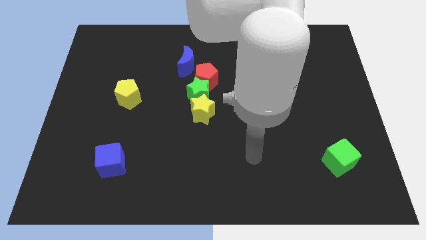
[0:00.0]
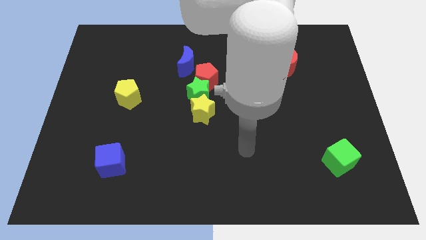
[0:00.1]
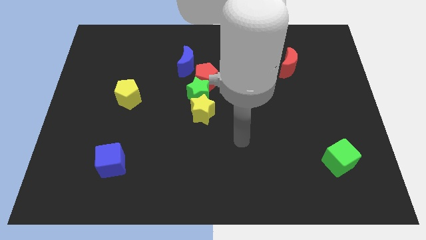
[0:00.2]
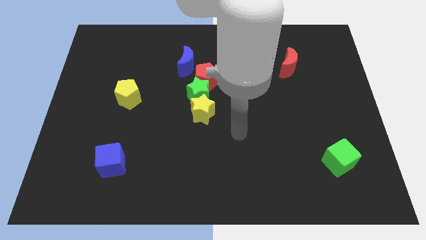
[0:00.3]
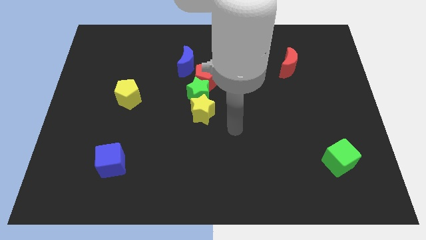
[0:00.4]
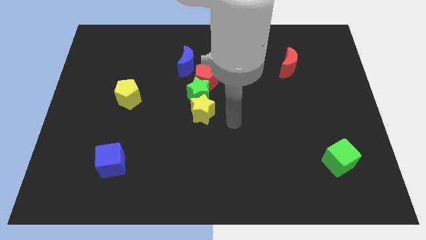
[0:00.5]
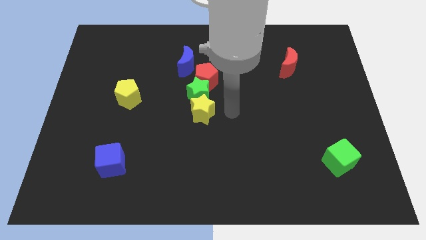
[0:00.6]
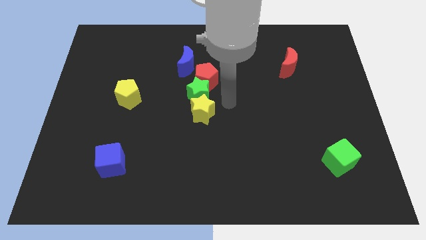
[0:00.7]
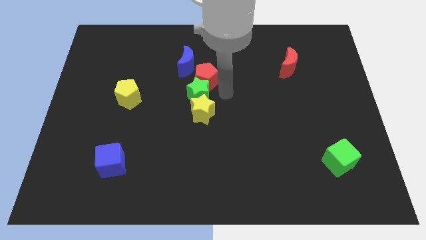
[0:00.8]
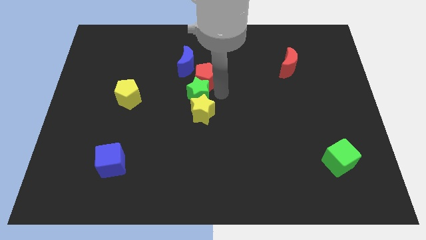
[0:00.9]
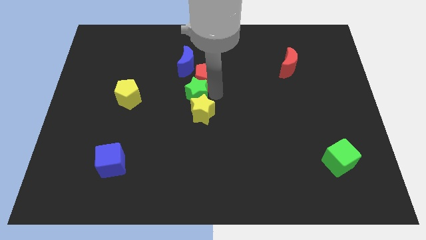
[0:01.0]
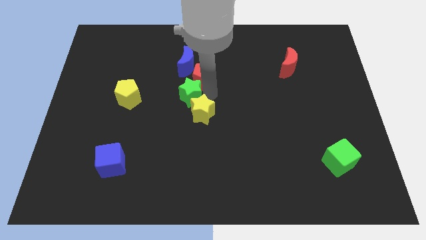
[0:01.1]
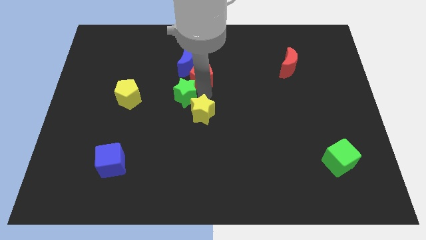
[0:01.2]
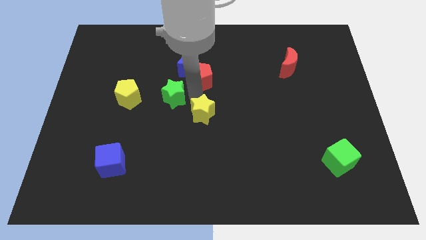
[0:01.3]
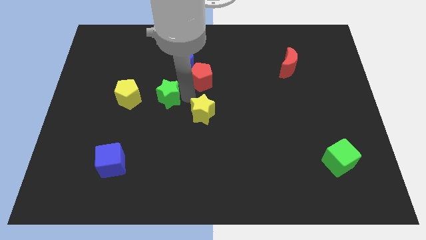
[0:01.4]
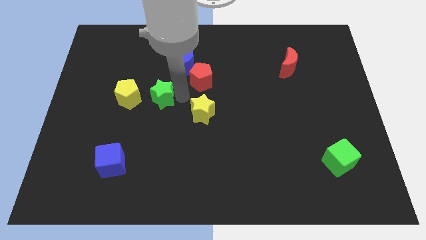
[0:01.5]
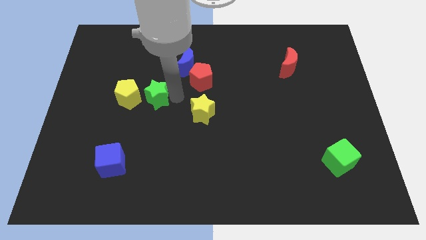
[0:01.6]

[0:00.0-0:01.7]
separate the green star from the red pentagon and yellow star

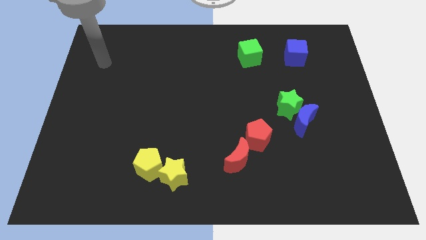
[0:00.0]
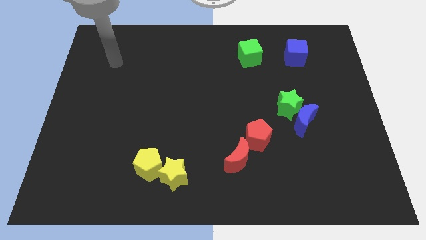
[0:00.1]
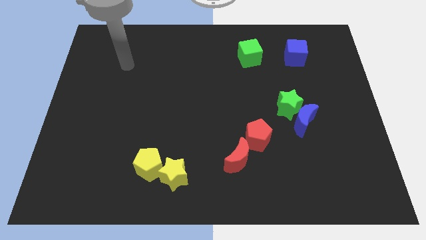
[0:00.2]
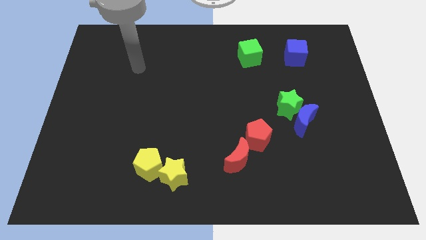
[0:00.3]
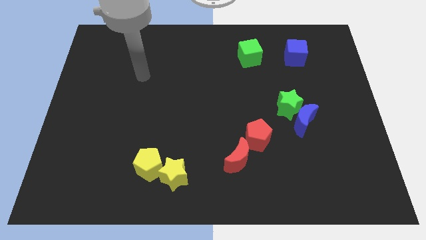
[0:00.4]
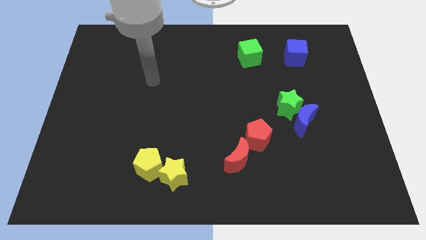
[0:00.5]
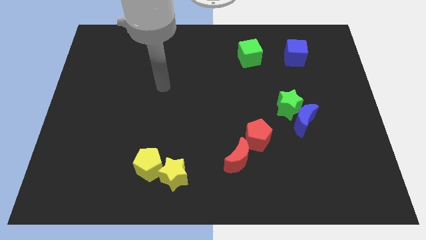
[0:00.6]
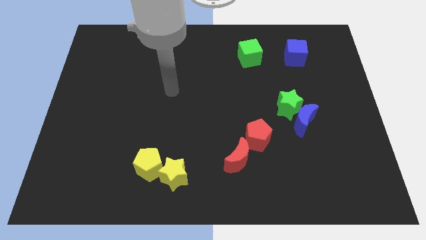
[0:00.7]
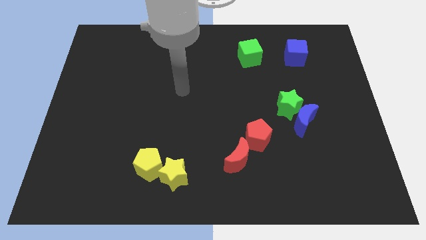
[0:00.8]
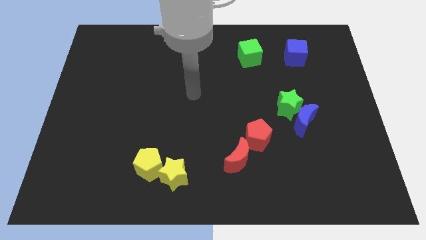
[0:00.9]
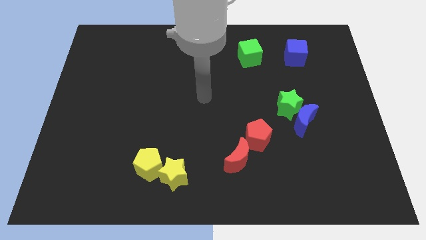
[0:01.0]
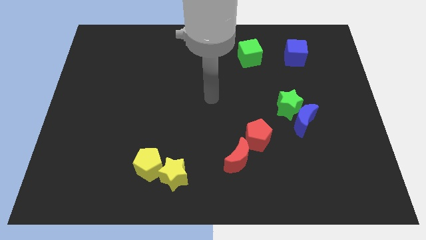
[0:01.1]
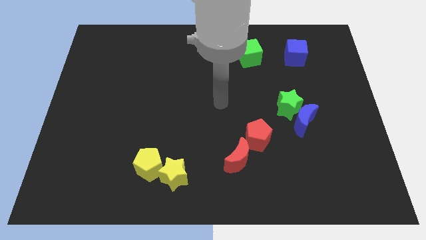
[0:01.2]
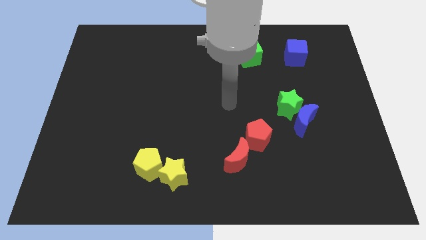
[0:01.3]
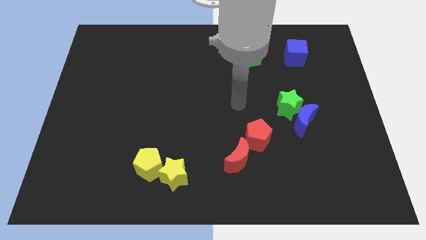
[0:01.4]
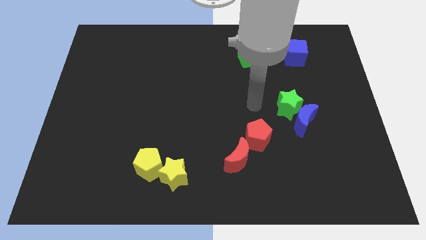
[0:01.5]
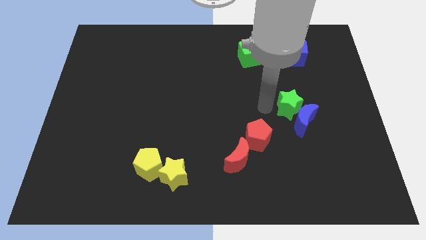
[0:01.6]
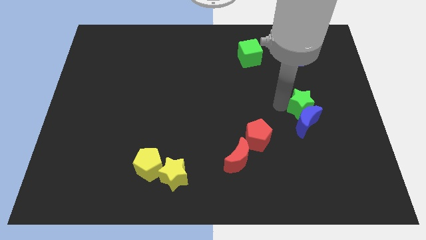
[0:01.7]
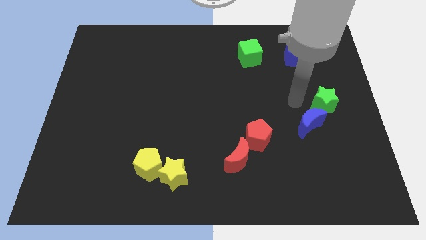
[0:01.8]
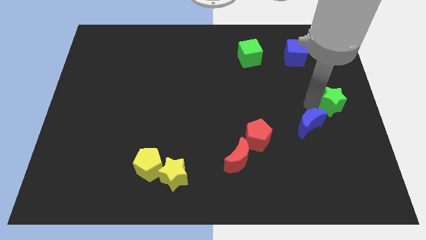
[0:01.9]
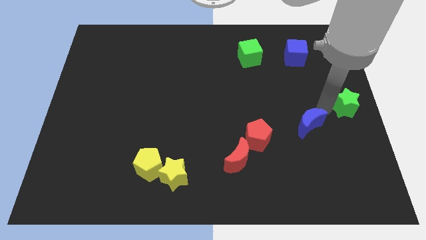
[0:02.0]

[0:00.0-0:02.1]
pull the blue moon apart from the green star

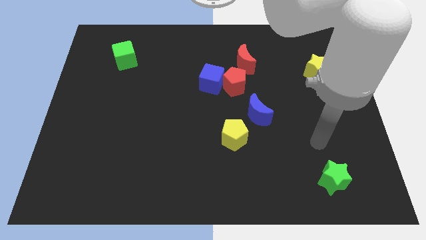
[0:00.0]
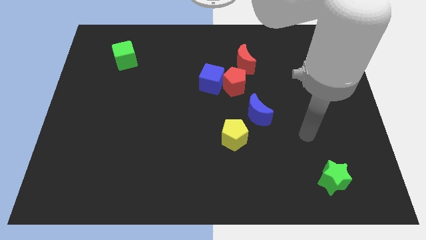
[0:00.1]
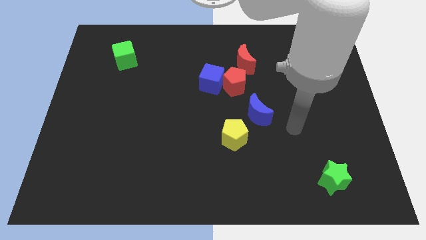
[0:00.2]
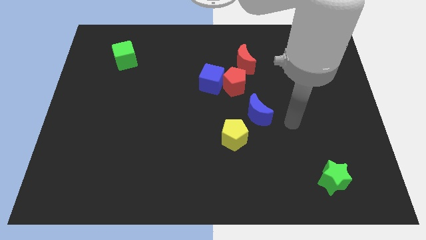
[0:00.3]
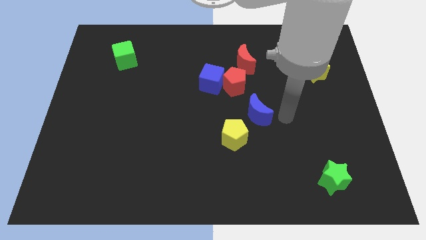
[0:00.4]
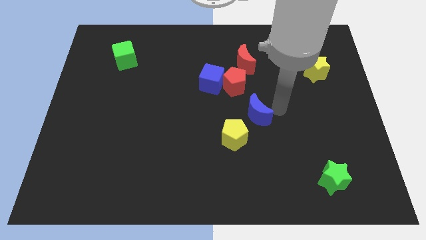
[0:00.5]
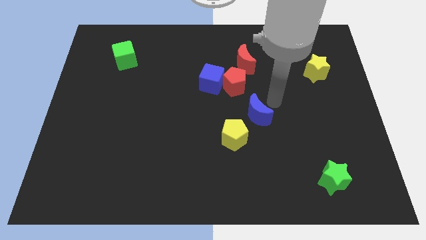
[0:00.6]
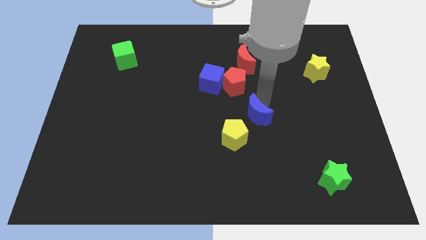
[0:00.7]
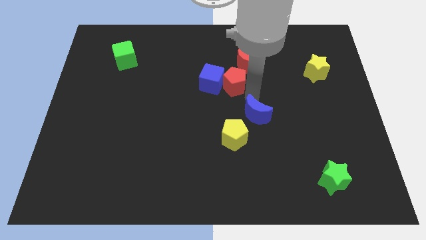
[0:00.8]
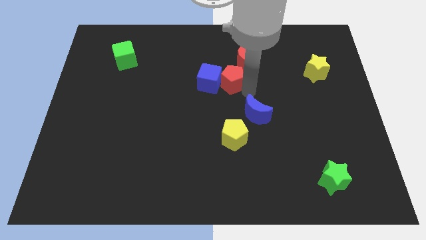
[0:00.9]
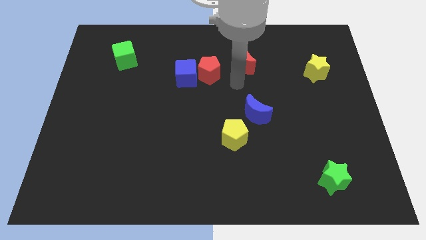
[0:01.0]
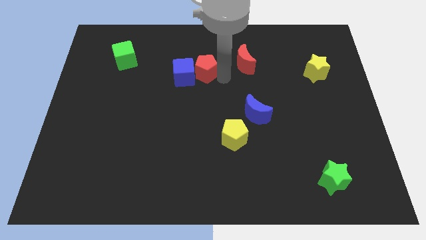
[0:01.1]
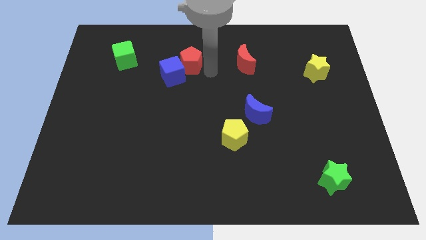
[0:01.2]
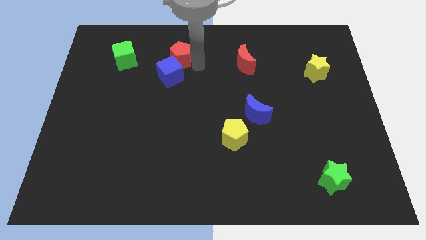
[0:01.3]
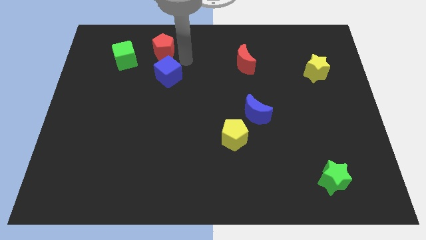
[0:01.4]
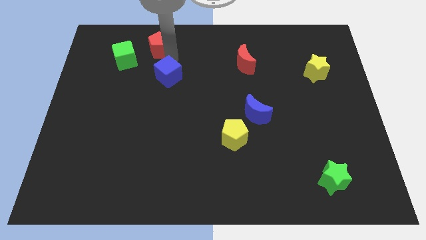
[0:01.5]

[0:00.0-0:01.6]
move the blue cube away from the red pentagon

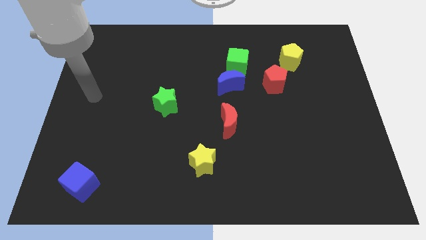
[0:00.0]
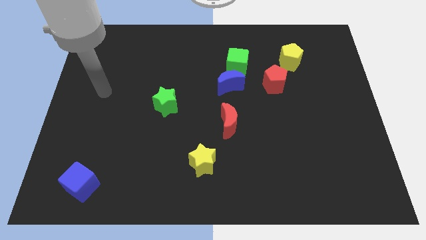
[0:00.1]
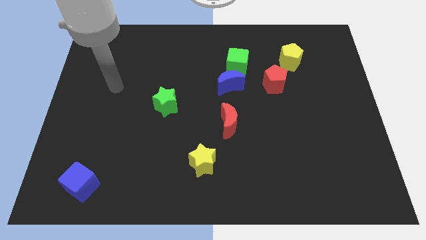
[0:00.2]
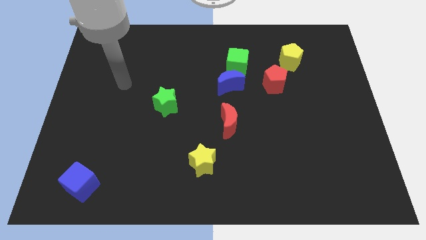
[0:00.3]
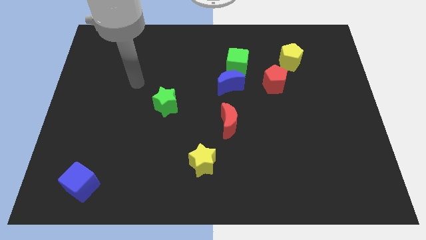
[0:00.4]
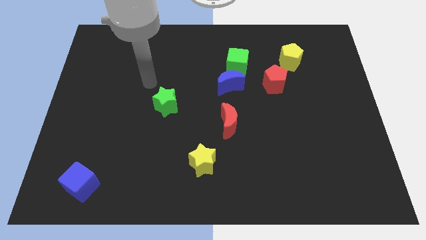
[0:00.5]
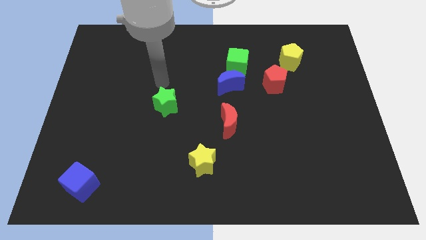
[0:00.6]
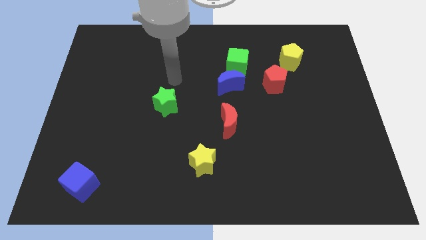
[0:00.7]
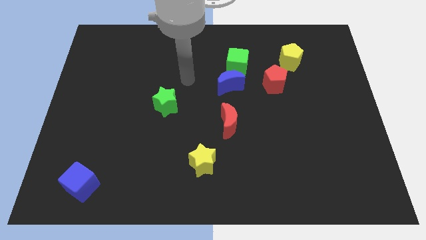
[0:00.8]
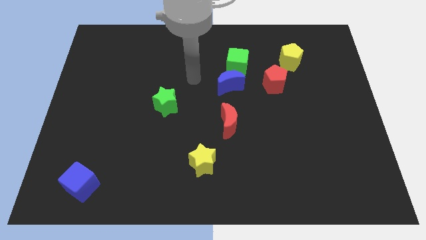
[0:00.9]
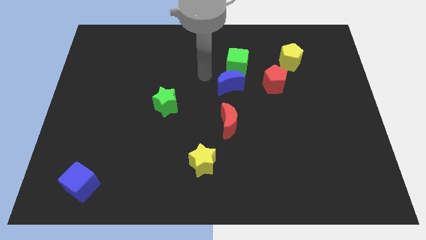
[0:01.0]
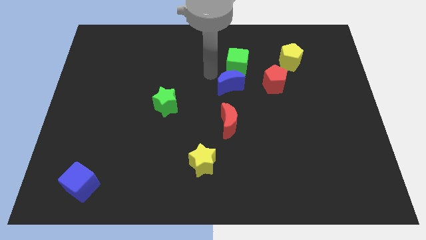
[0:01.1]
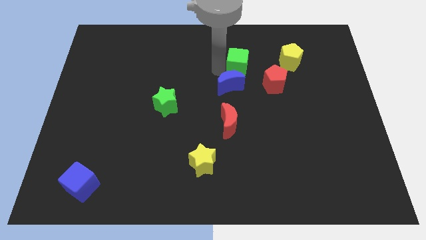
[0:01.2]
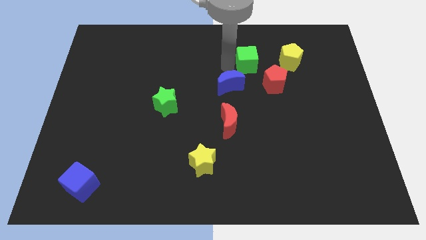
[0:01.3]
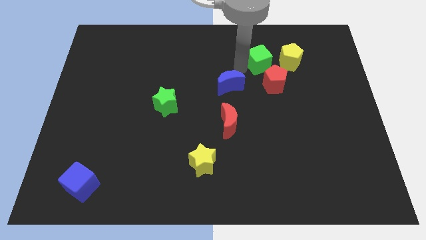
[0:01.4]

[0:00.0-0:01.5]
pull the blue moon apart from the green cube

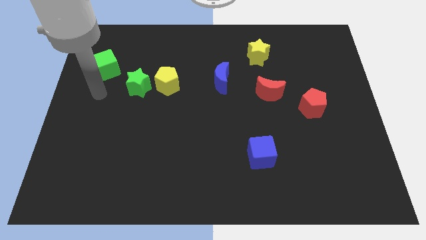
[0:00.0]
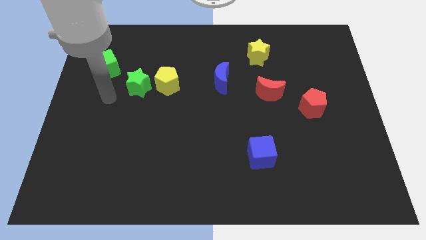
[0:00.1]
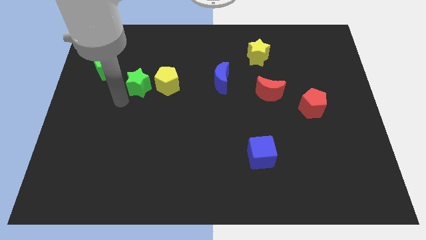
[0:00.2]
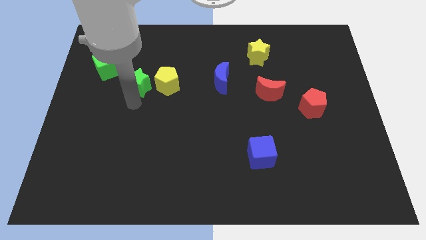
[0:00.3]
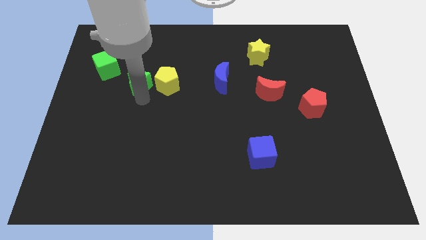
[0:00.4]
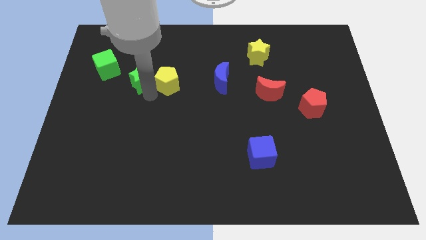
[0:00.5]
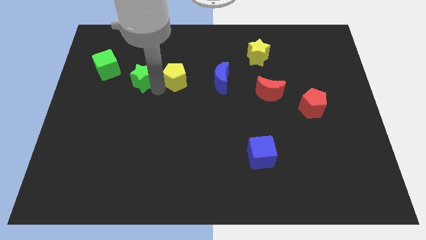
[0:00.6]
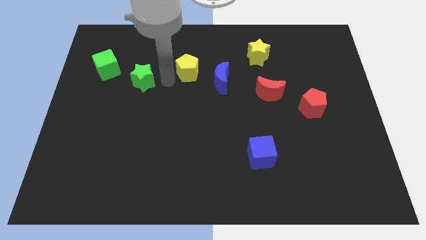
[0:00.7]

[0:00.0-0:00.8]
move the green star away from the yellow pentagon

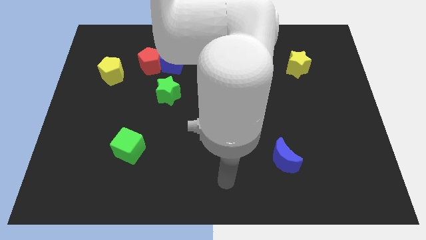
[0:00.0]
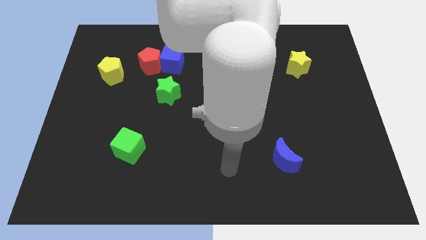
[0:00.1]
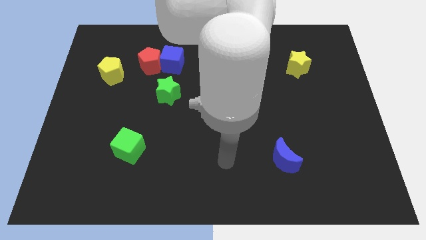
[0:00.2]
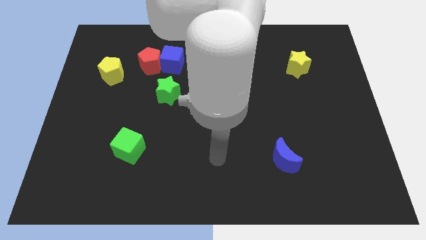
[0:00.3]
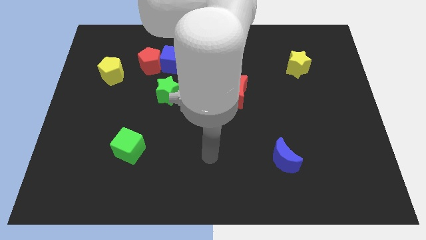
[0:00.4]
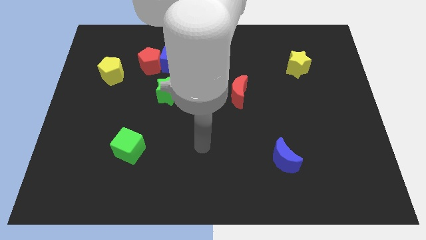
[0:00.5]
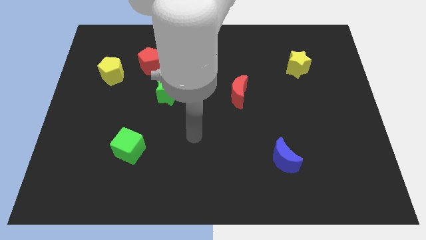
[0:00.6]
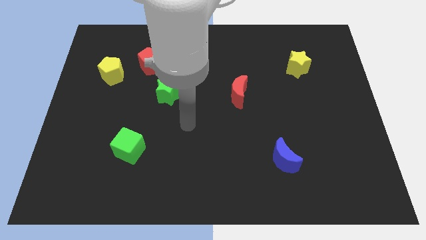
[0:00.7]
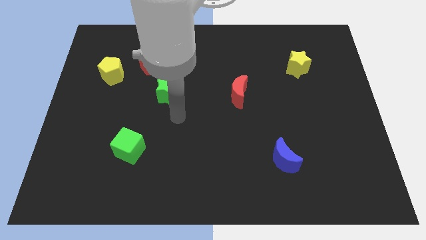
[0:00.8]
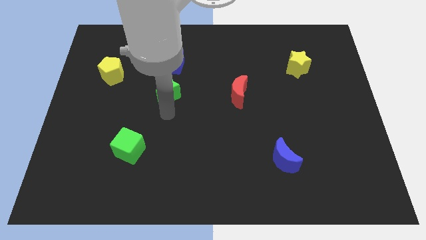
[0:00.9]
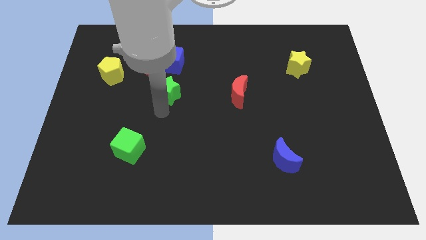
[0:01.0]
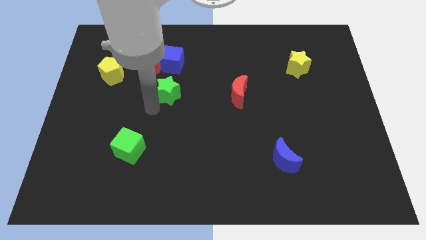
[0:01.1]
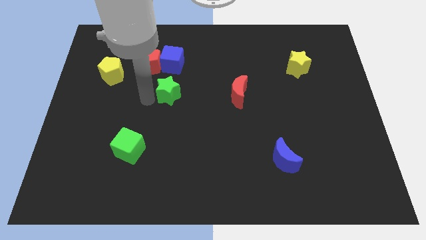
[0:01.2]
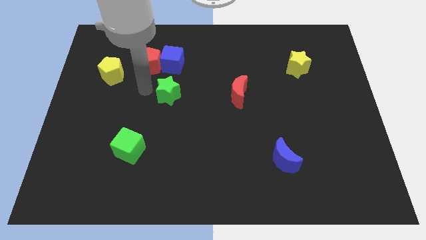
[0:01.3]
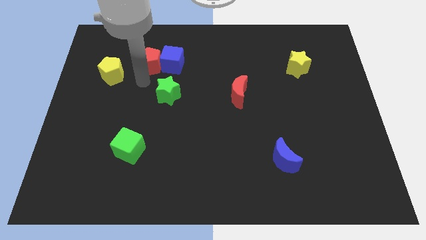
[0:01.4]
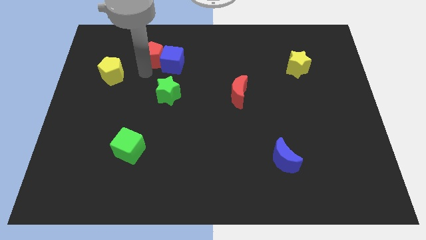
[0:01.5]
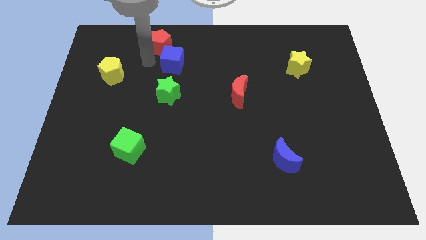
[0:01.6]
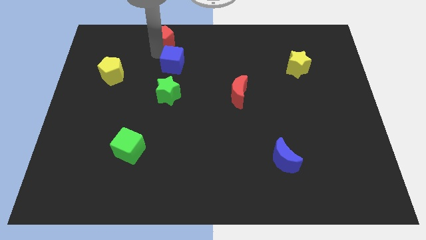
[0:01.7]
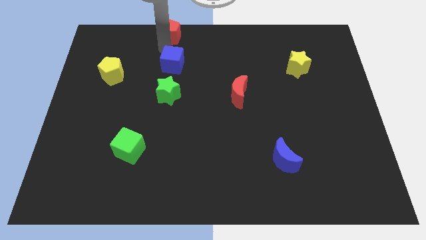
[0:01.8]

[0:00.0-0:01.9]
pull the blue cube apart from the red pentagon
